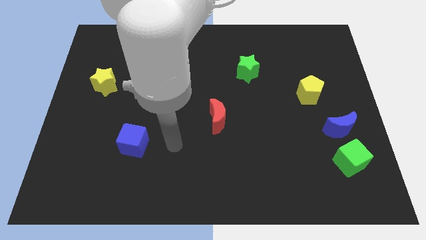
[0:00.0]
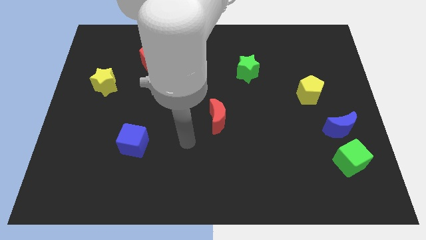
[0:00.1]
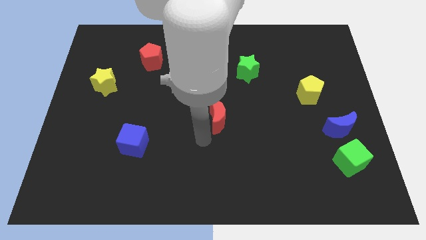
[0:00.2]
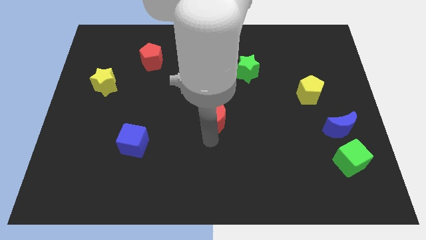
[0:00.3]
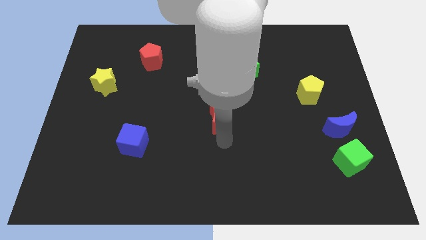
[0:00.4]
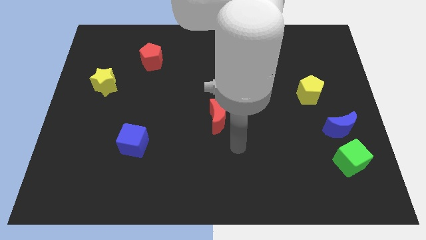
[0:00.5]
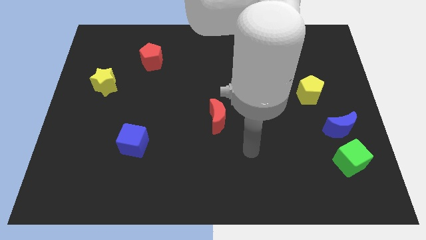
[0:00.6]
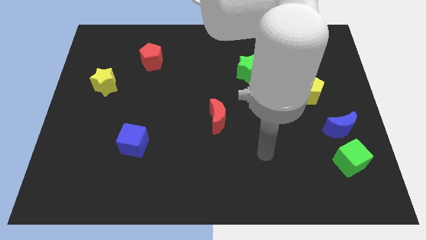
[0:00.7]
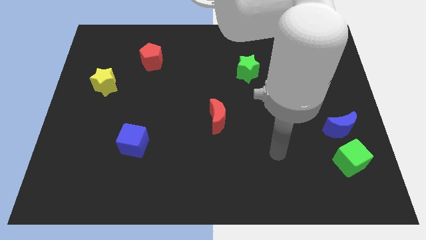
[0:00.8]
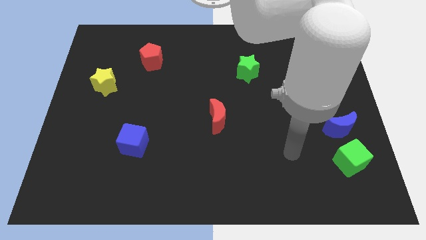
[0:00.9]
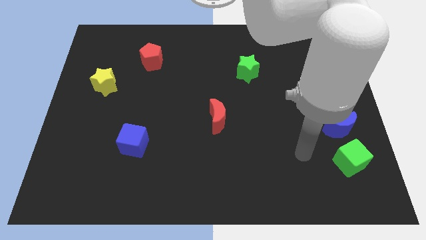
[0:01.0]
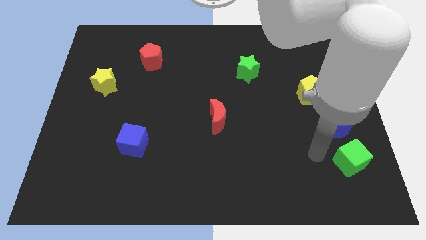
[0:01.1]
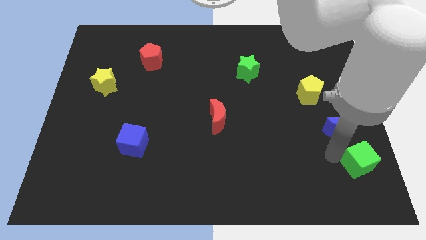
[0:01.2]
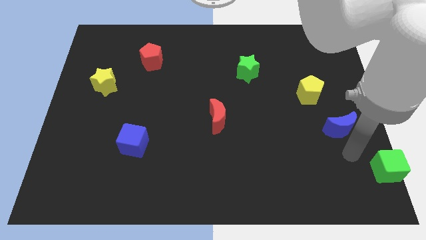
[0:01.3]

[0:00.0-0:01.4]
move the blue moon away from the green cube

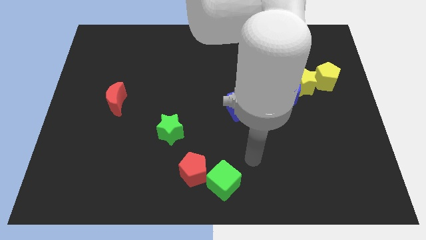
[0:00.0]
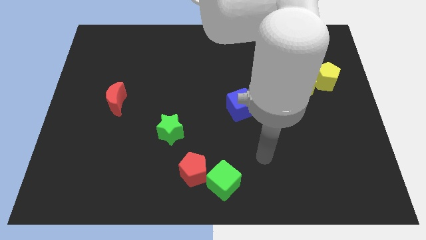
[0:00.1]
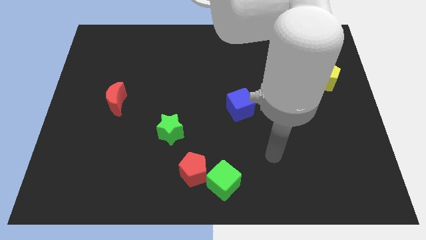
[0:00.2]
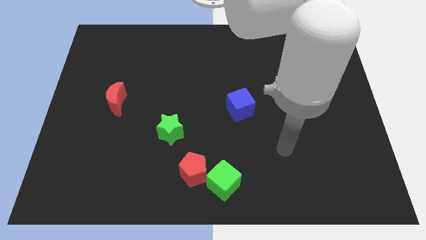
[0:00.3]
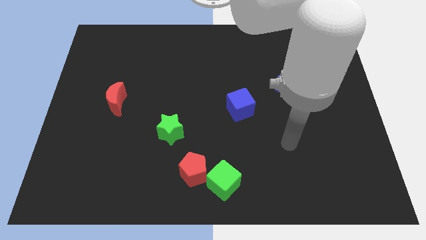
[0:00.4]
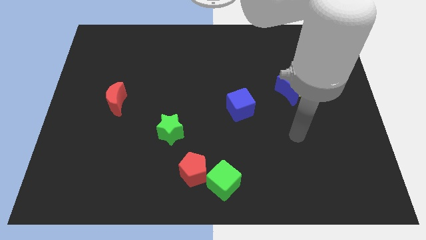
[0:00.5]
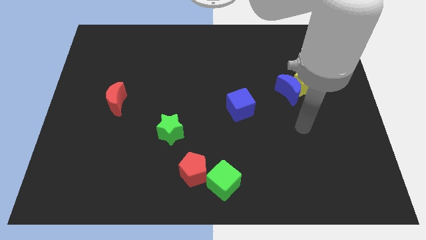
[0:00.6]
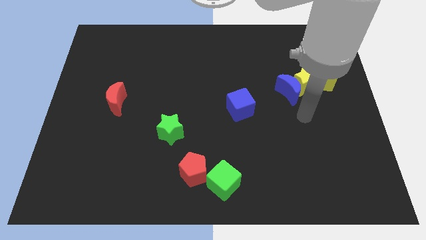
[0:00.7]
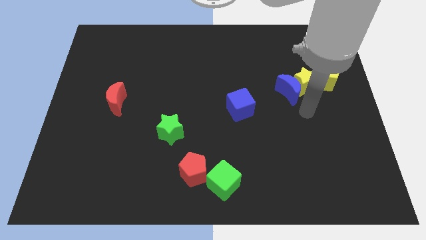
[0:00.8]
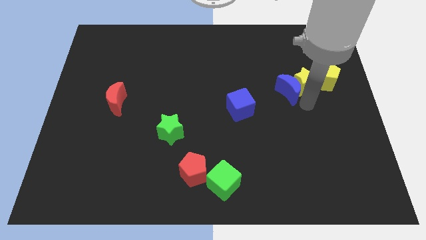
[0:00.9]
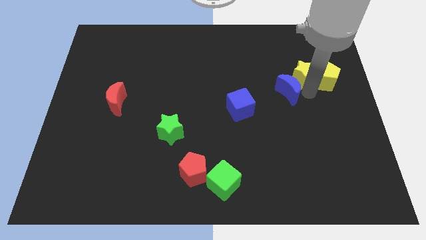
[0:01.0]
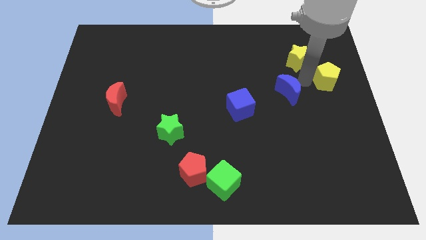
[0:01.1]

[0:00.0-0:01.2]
move the blue moon away from the yellow star

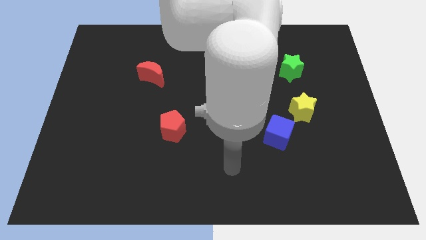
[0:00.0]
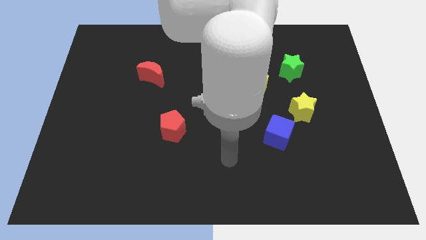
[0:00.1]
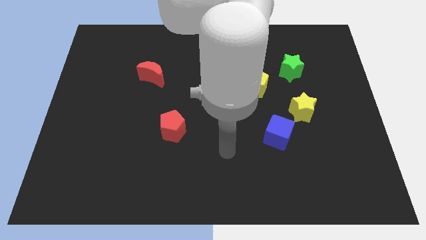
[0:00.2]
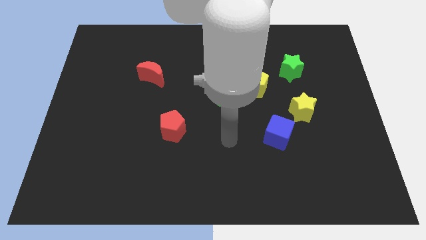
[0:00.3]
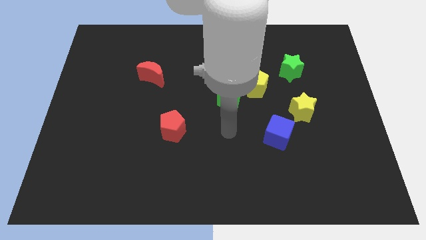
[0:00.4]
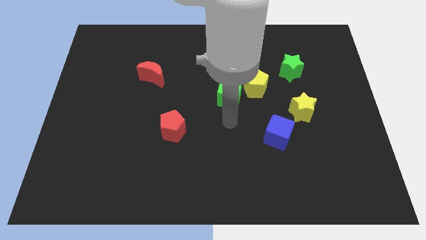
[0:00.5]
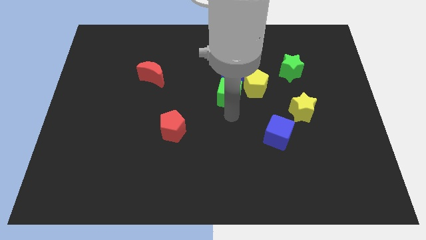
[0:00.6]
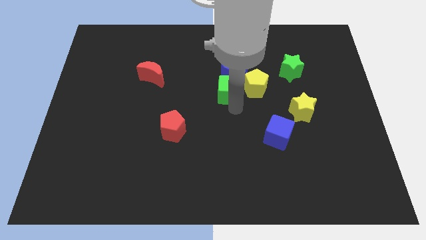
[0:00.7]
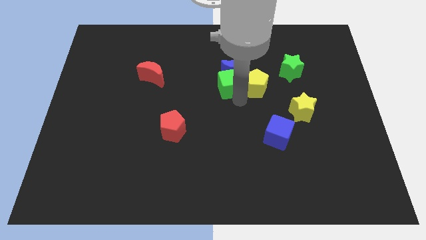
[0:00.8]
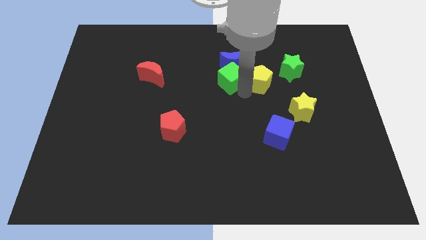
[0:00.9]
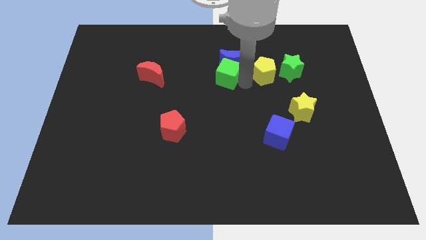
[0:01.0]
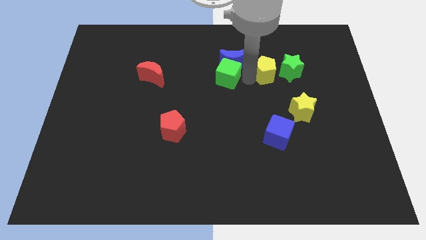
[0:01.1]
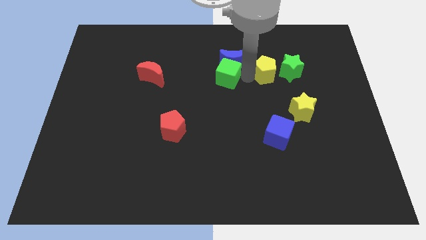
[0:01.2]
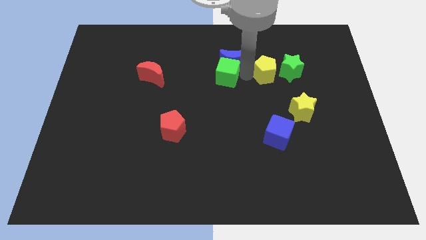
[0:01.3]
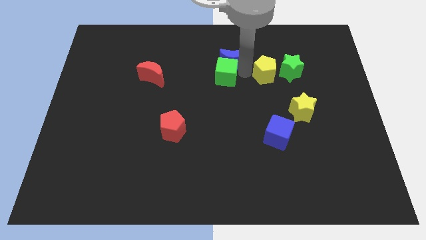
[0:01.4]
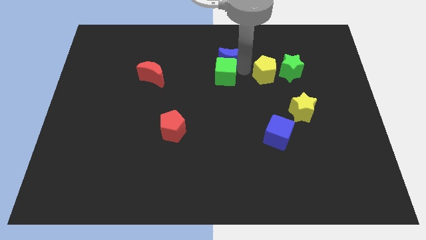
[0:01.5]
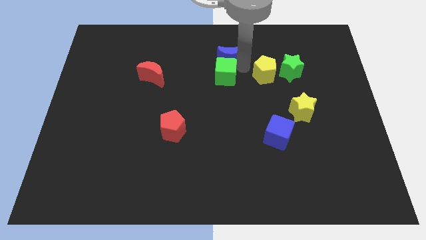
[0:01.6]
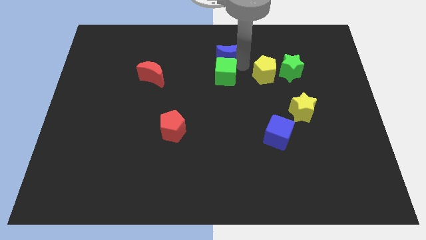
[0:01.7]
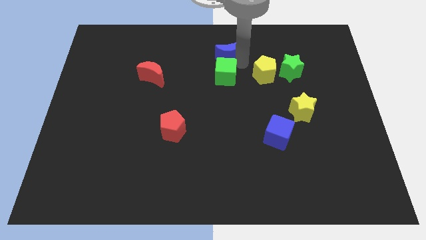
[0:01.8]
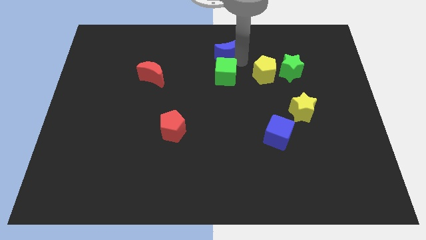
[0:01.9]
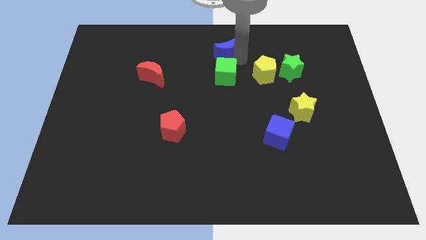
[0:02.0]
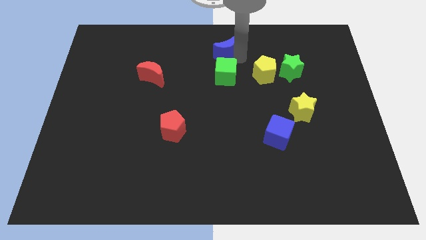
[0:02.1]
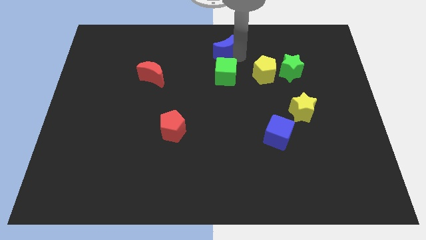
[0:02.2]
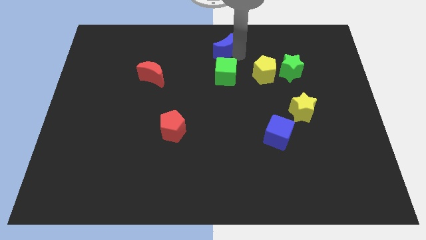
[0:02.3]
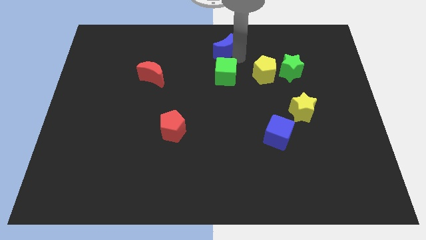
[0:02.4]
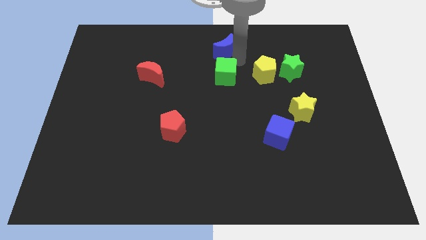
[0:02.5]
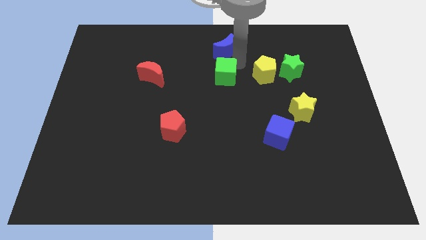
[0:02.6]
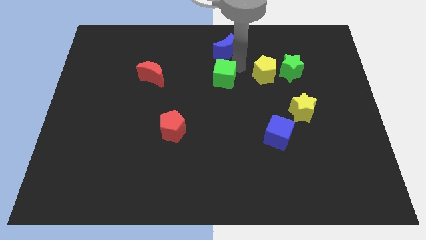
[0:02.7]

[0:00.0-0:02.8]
move the blue moon away from the yellow pentagon and green cube

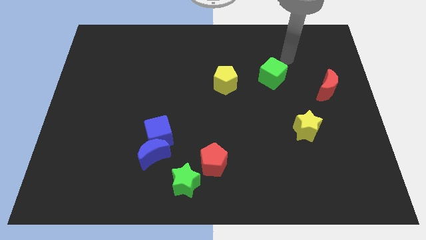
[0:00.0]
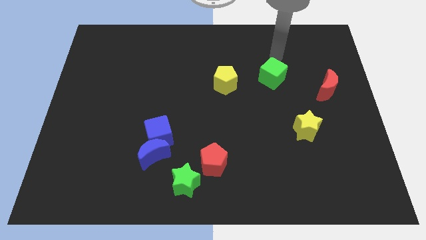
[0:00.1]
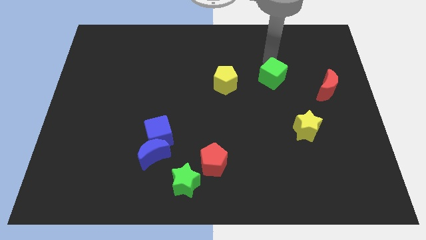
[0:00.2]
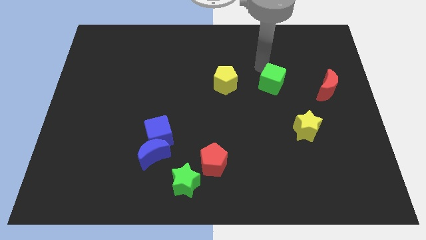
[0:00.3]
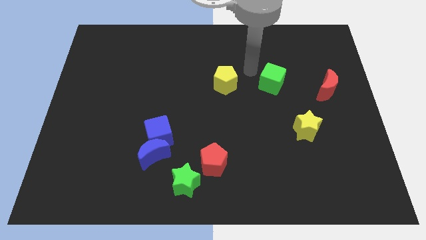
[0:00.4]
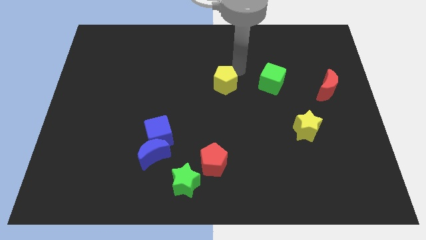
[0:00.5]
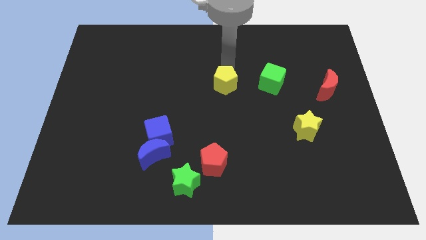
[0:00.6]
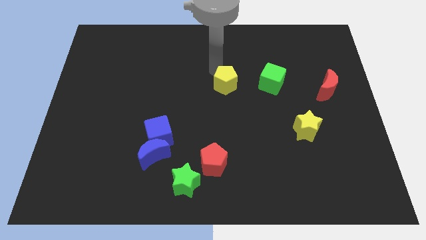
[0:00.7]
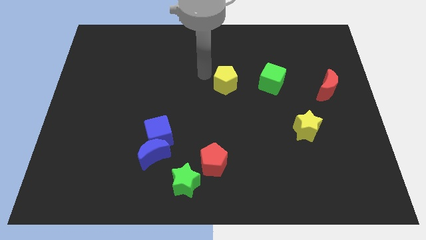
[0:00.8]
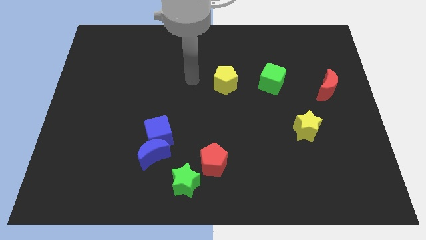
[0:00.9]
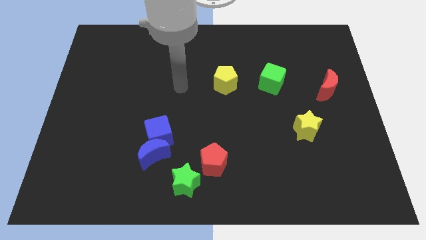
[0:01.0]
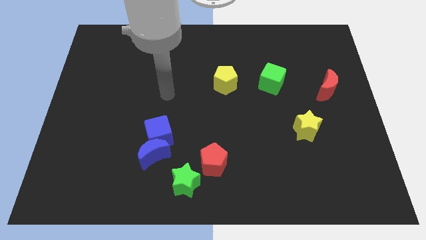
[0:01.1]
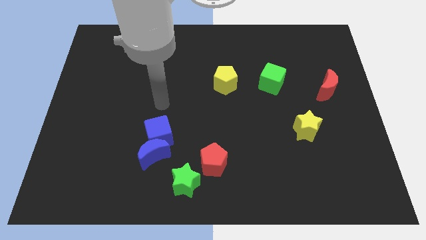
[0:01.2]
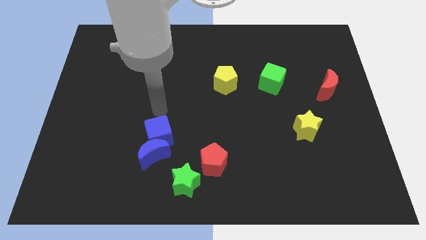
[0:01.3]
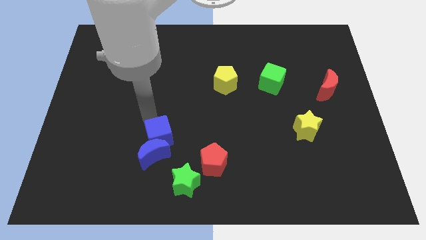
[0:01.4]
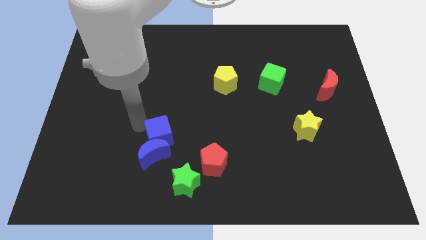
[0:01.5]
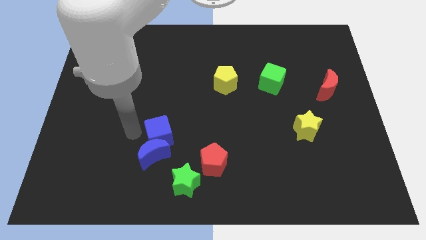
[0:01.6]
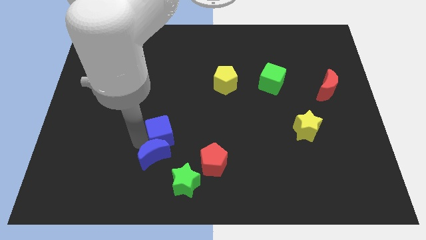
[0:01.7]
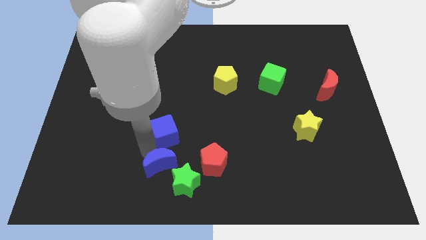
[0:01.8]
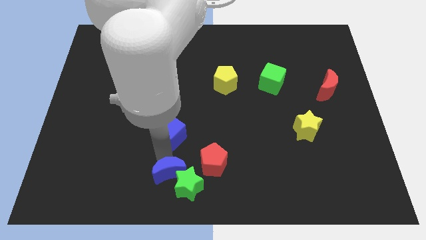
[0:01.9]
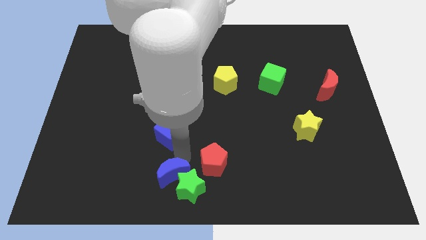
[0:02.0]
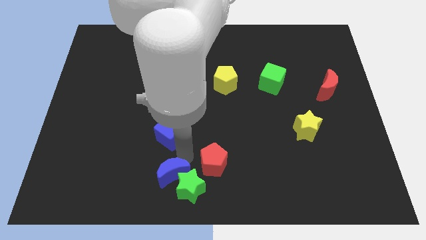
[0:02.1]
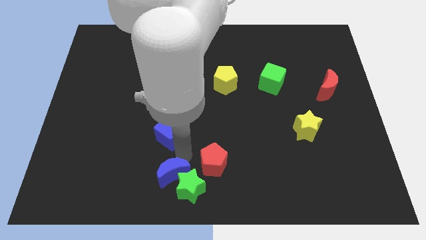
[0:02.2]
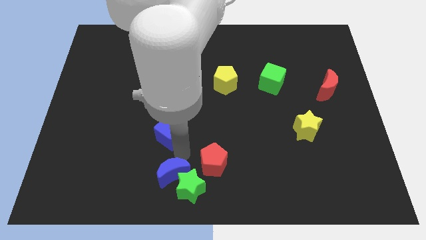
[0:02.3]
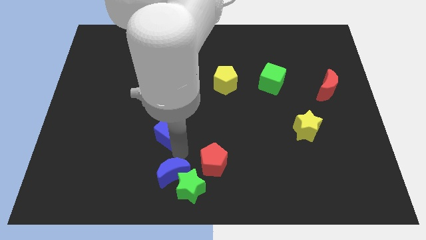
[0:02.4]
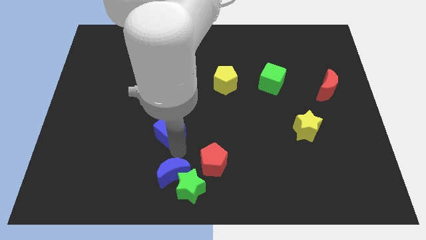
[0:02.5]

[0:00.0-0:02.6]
separate the blue cube from the blue moon

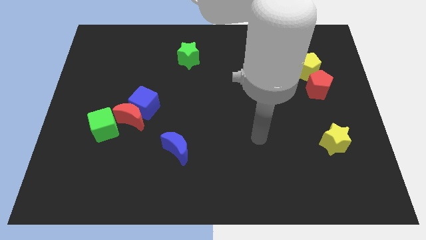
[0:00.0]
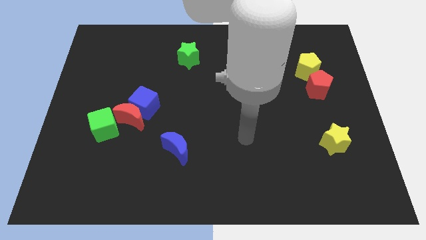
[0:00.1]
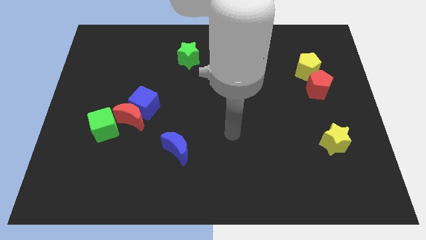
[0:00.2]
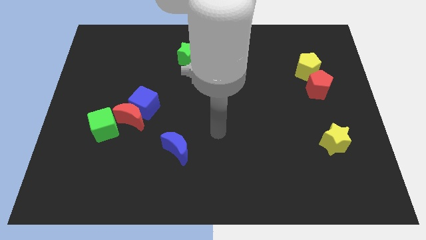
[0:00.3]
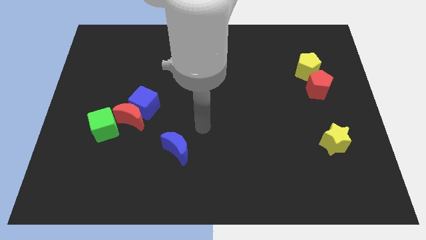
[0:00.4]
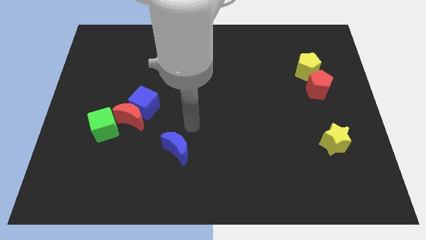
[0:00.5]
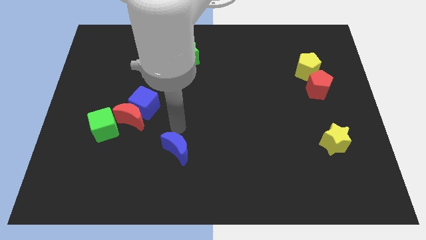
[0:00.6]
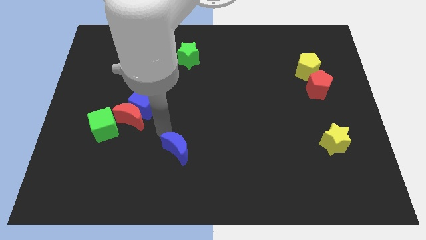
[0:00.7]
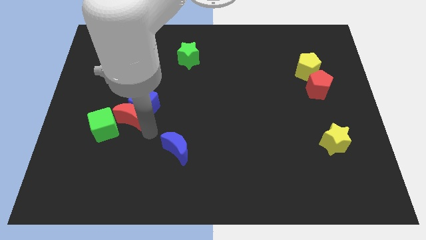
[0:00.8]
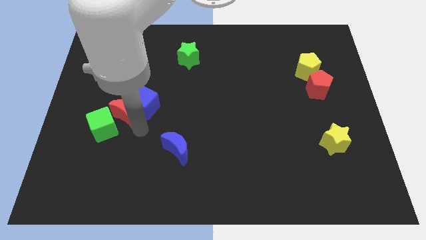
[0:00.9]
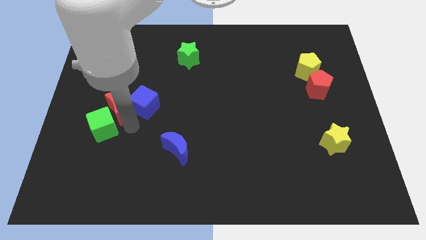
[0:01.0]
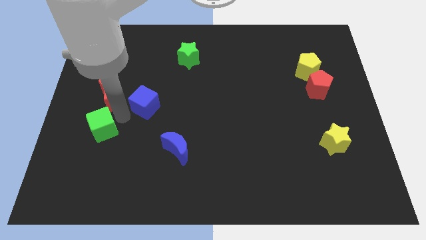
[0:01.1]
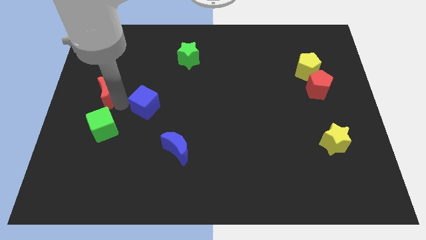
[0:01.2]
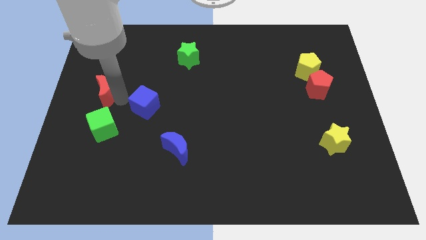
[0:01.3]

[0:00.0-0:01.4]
separate the blue cube from the red moon
